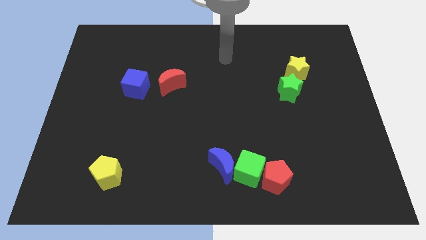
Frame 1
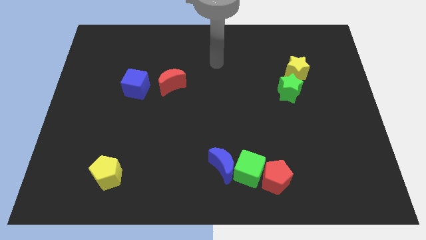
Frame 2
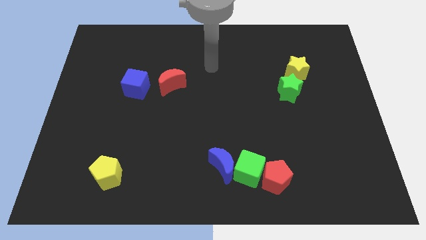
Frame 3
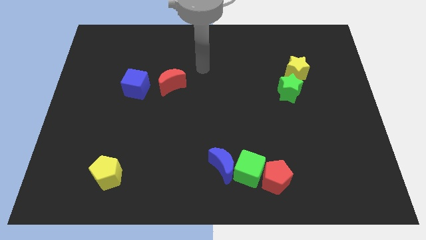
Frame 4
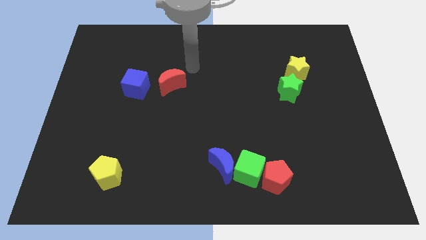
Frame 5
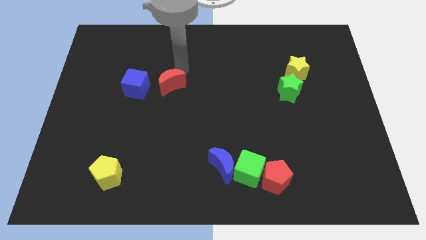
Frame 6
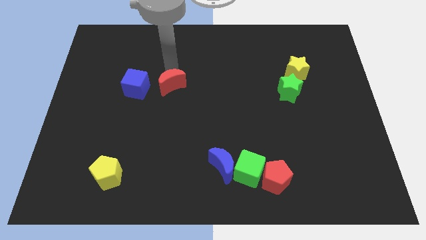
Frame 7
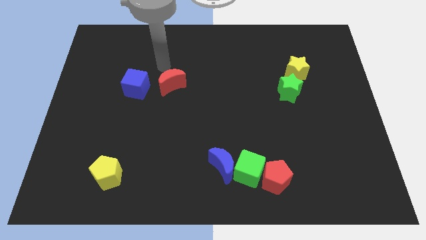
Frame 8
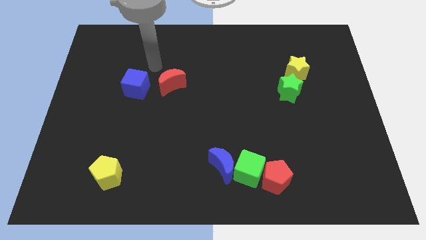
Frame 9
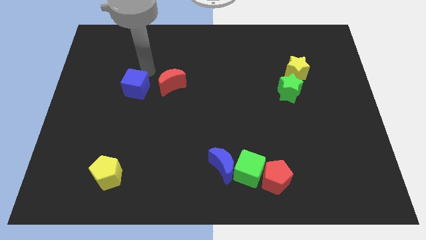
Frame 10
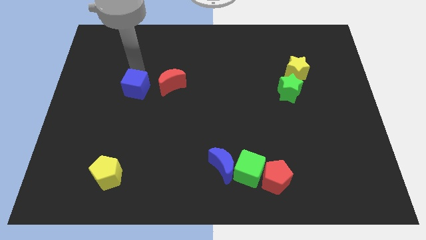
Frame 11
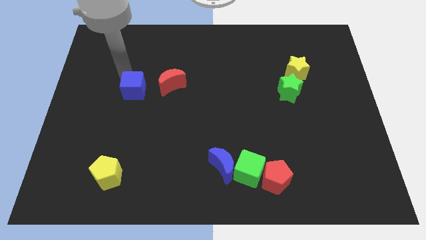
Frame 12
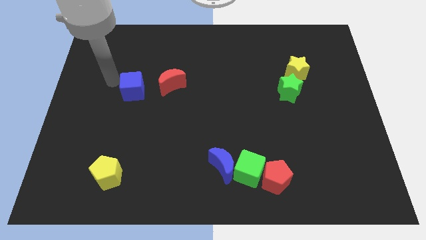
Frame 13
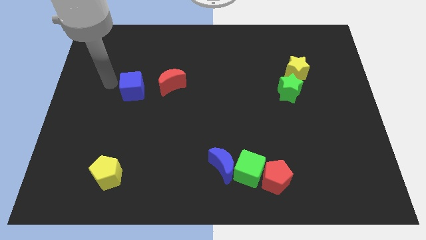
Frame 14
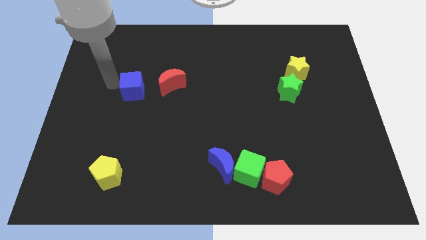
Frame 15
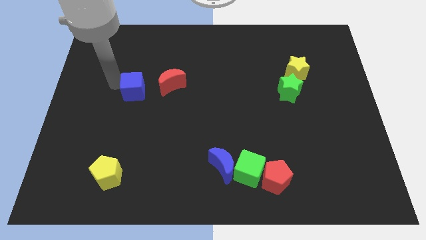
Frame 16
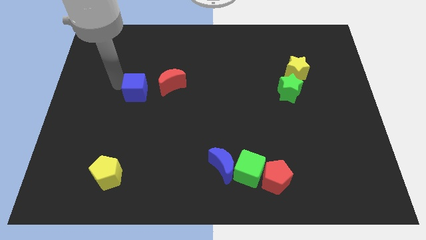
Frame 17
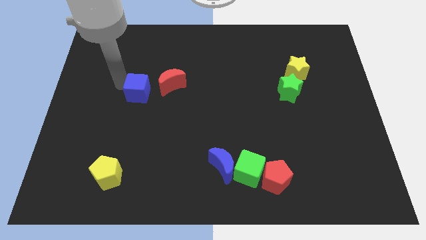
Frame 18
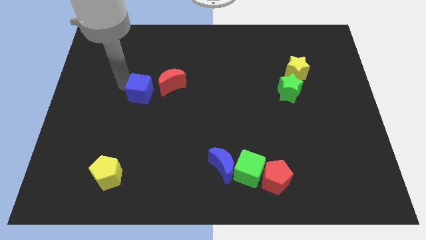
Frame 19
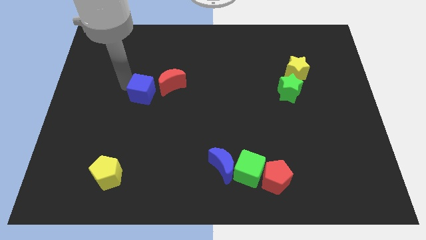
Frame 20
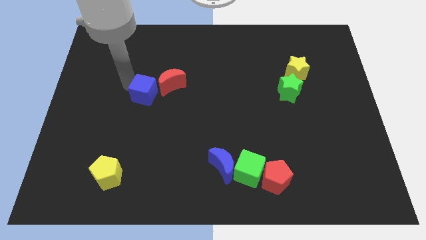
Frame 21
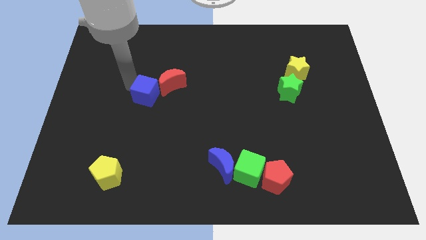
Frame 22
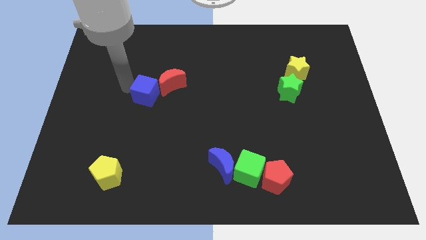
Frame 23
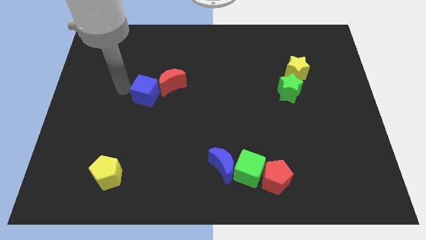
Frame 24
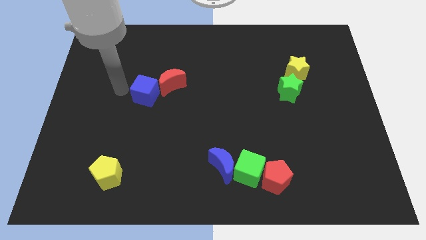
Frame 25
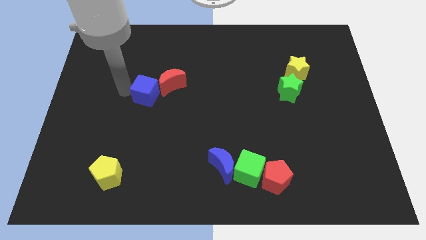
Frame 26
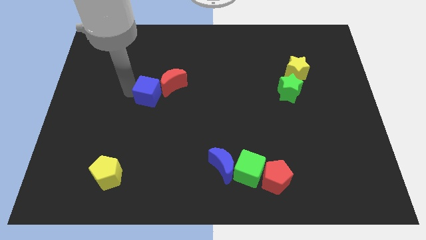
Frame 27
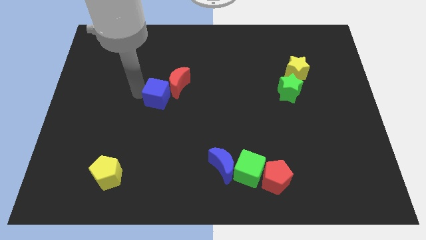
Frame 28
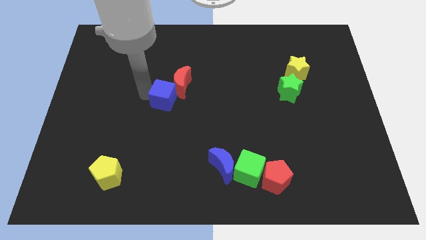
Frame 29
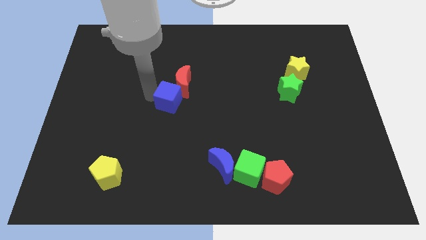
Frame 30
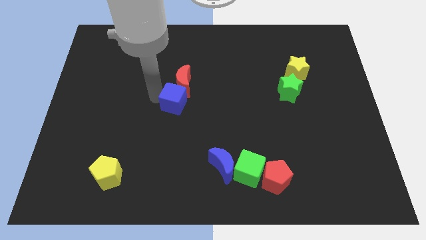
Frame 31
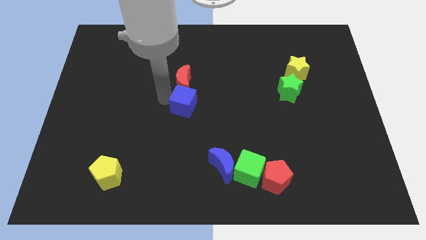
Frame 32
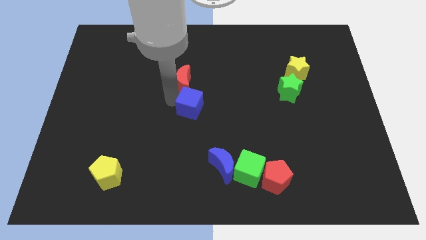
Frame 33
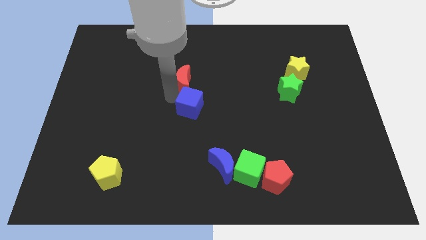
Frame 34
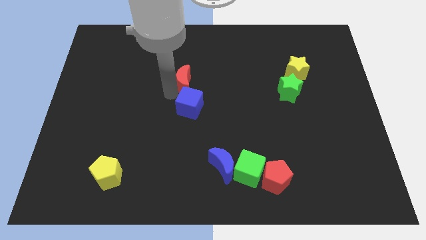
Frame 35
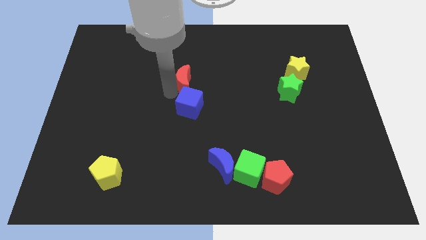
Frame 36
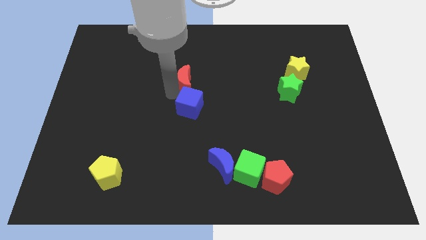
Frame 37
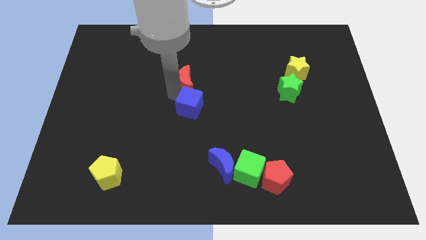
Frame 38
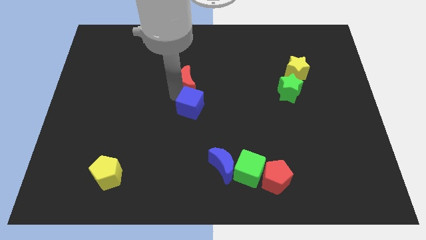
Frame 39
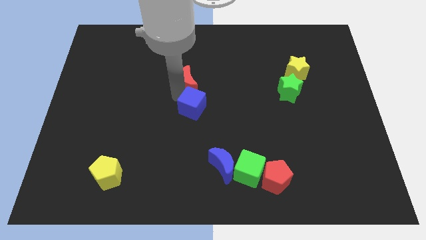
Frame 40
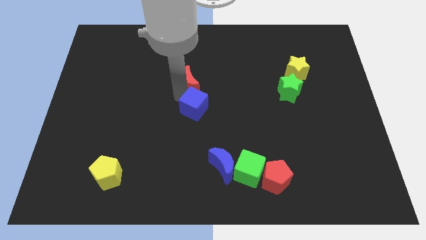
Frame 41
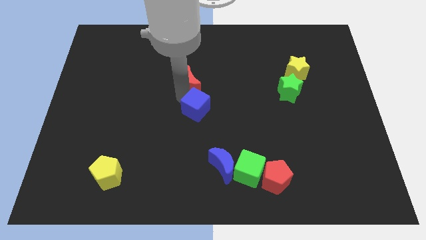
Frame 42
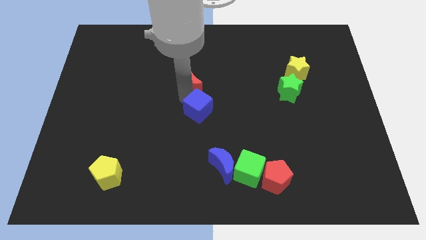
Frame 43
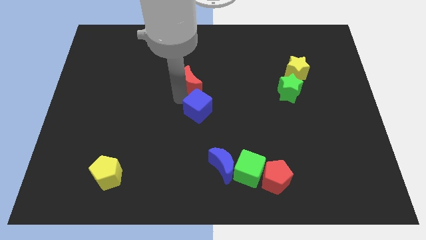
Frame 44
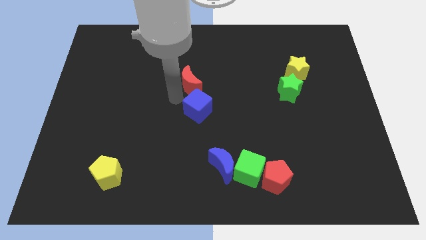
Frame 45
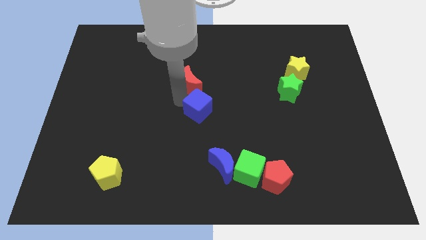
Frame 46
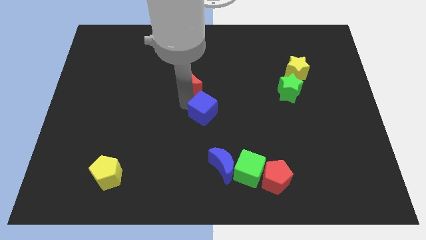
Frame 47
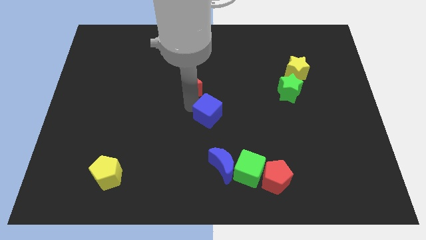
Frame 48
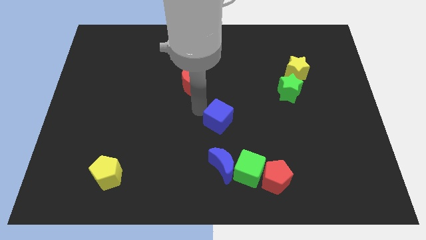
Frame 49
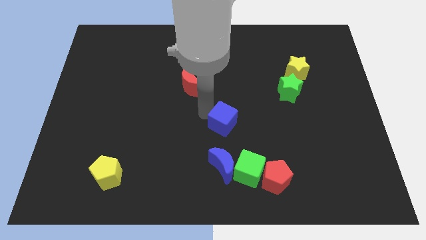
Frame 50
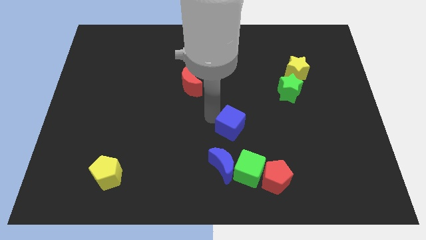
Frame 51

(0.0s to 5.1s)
move the blue cube above the green cube

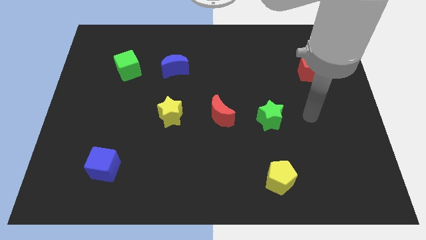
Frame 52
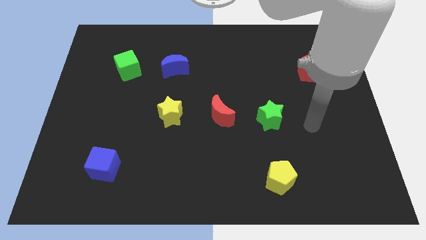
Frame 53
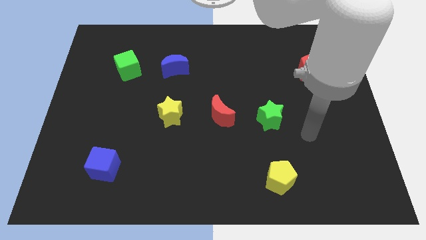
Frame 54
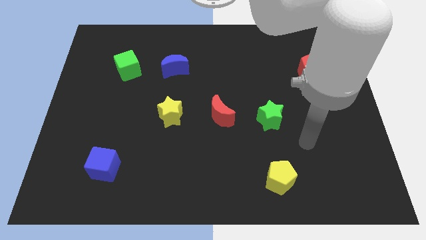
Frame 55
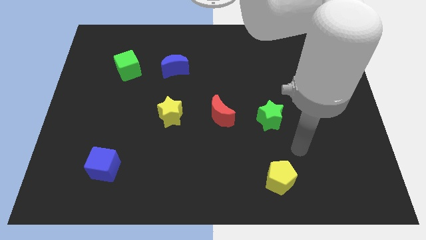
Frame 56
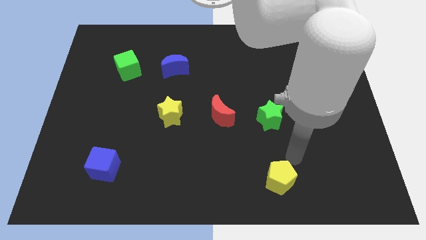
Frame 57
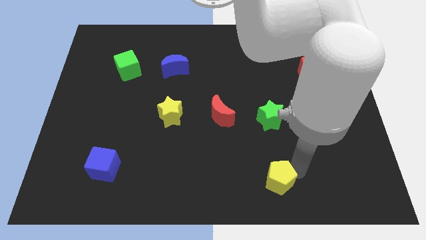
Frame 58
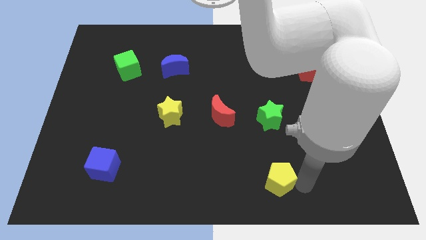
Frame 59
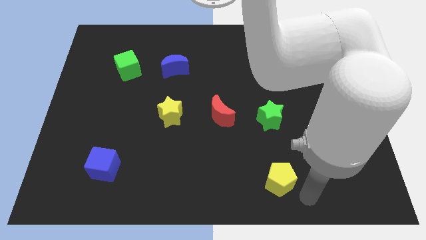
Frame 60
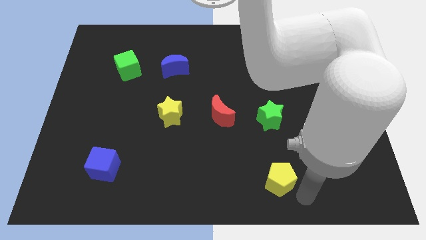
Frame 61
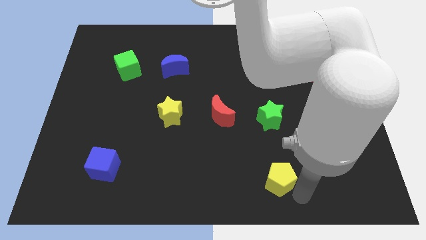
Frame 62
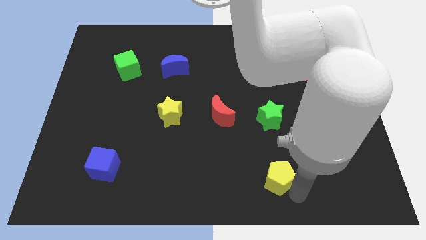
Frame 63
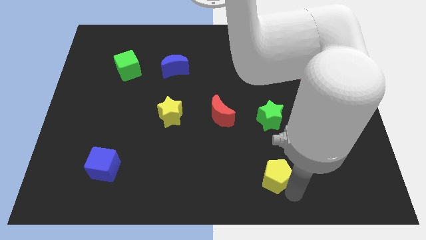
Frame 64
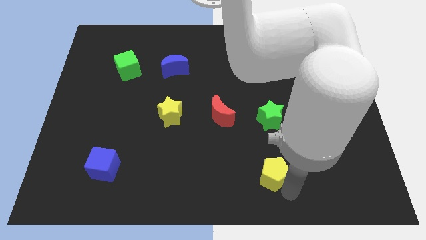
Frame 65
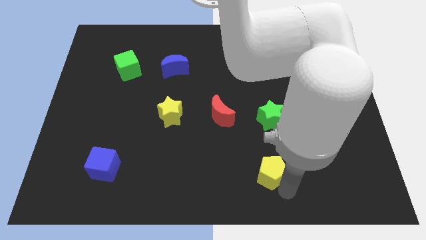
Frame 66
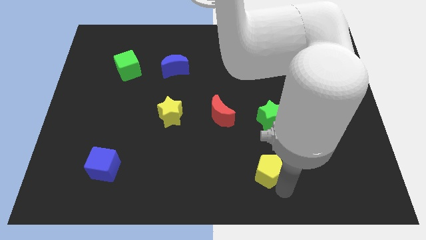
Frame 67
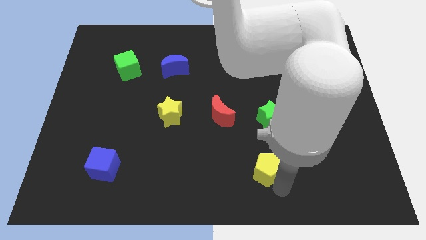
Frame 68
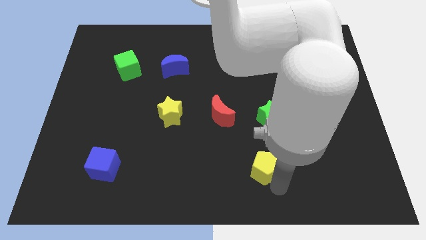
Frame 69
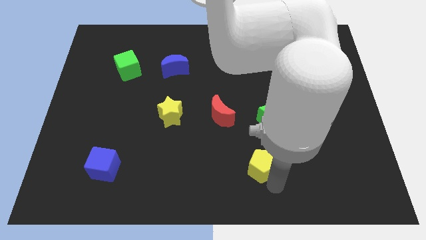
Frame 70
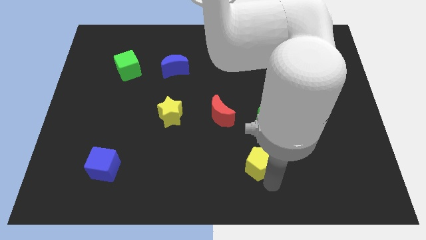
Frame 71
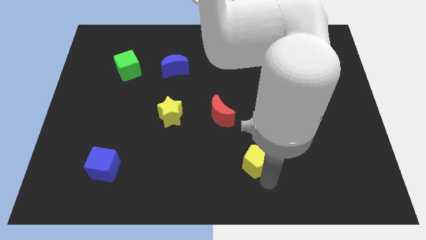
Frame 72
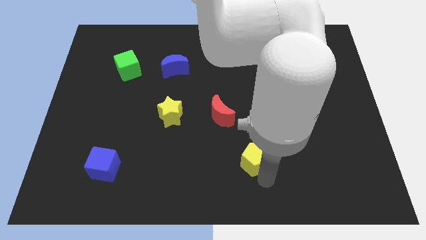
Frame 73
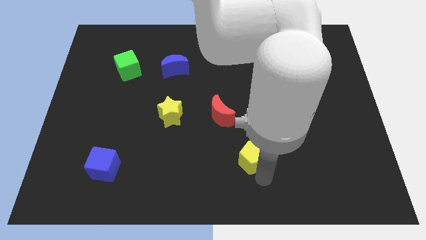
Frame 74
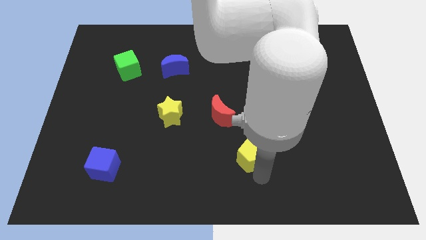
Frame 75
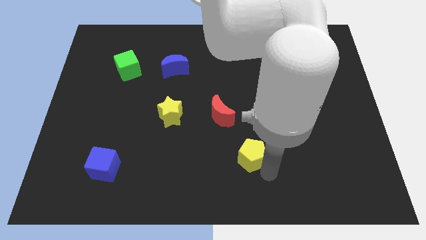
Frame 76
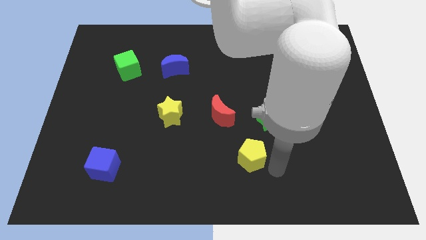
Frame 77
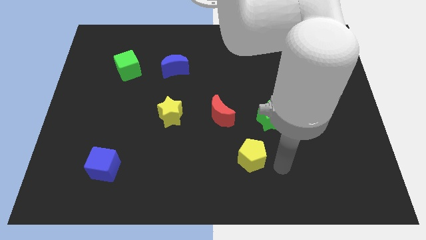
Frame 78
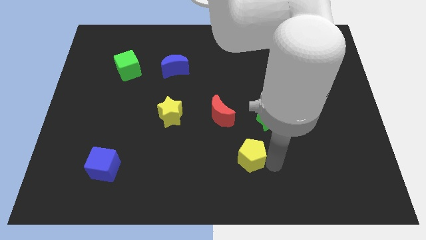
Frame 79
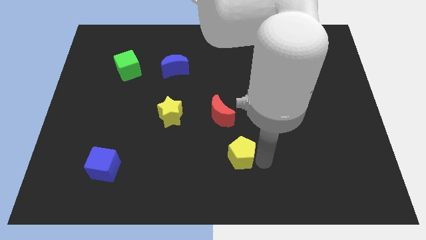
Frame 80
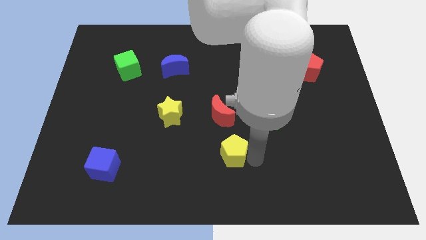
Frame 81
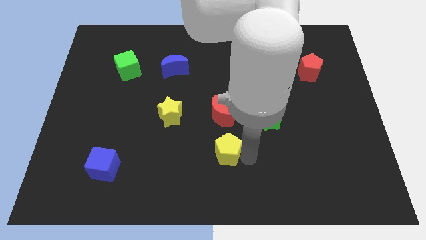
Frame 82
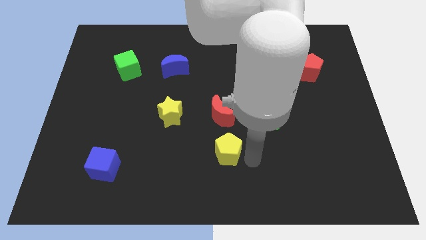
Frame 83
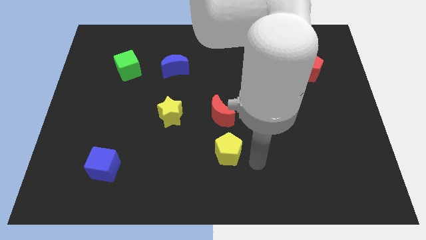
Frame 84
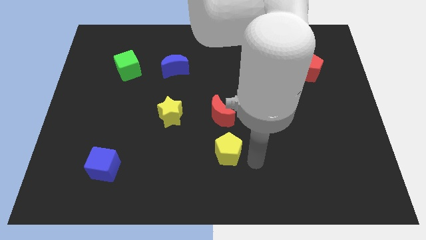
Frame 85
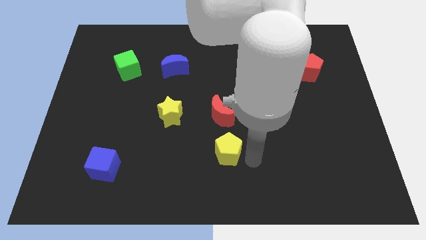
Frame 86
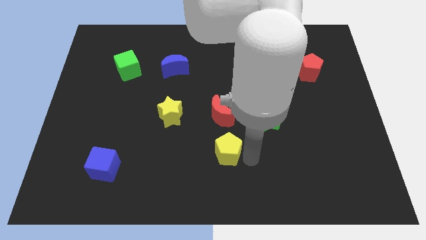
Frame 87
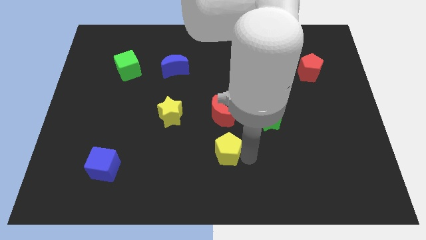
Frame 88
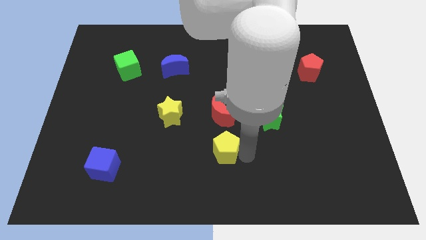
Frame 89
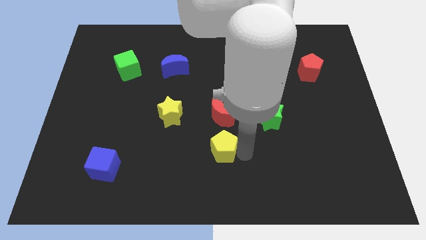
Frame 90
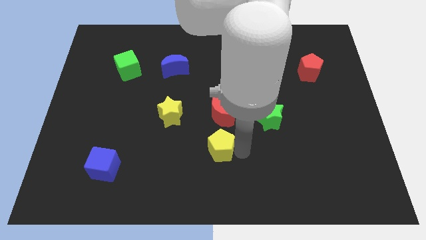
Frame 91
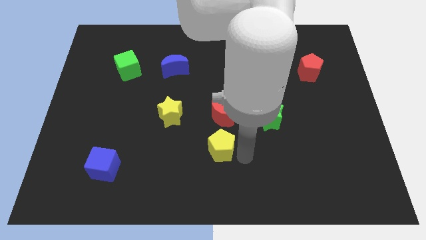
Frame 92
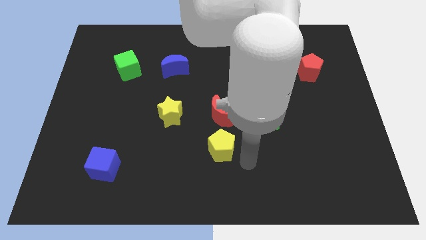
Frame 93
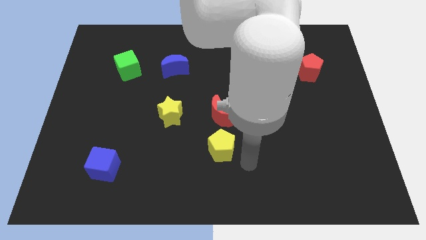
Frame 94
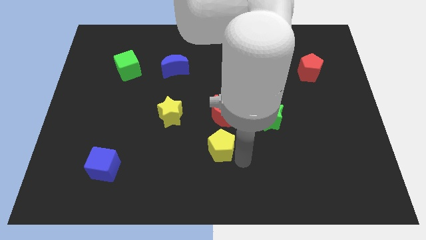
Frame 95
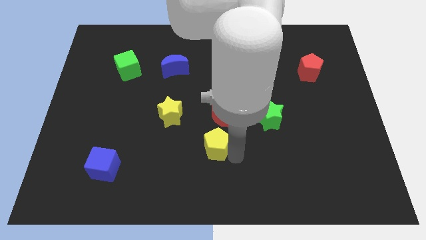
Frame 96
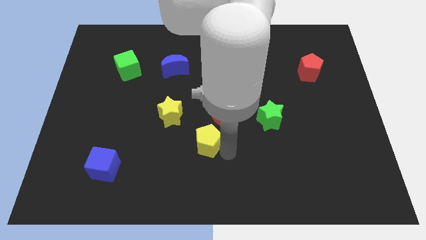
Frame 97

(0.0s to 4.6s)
slide the yellow pentagon diagonally down and to the left of the red moon
